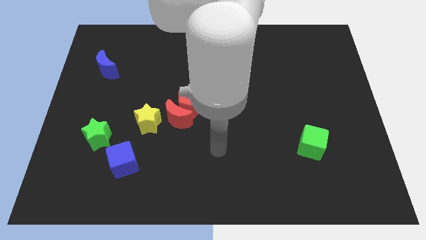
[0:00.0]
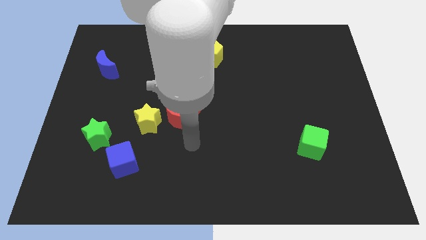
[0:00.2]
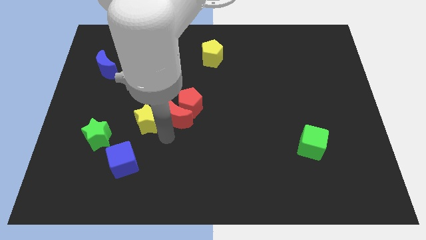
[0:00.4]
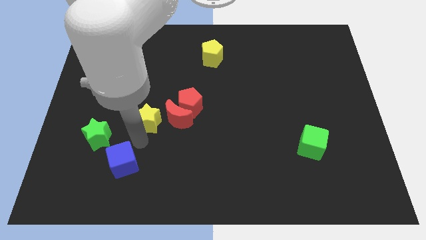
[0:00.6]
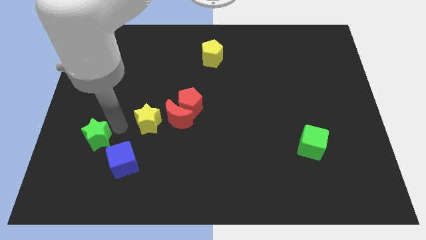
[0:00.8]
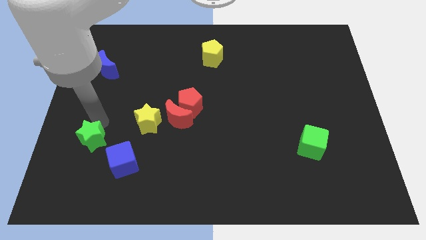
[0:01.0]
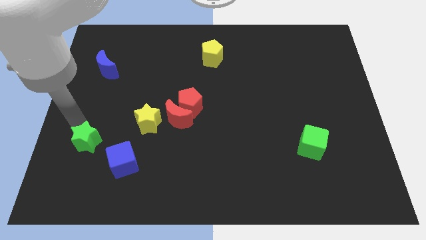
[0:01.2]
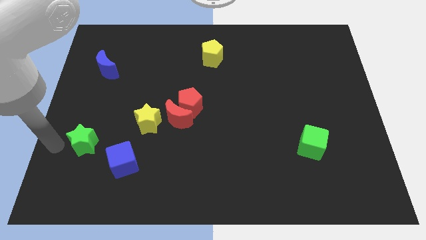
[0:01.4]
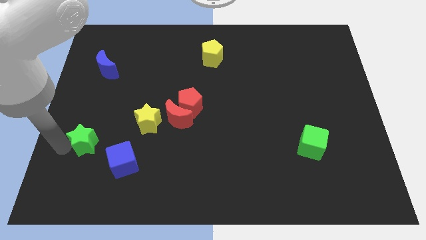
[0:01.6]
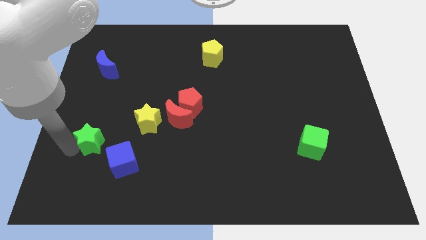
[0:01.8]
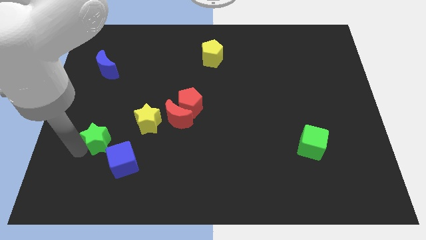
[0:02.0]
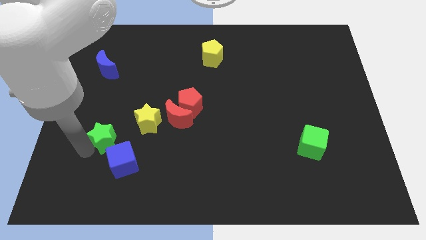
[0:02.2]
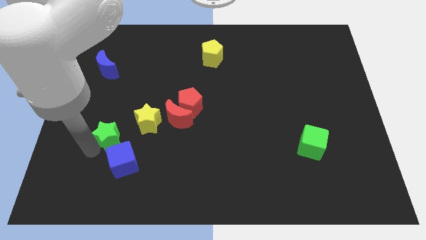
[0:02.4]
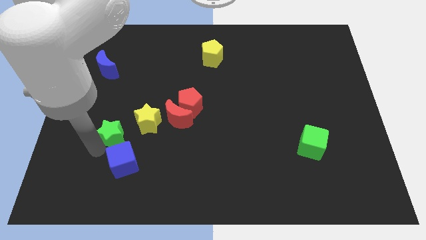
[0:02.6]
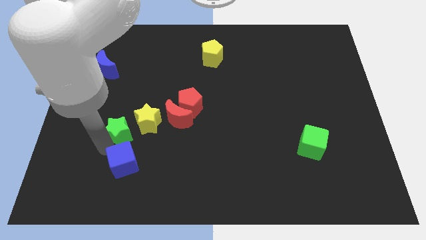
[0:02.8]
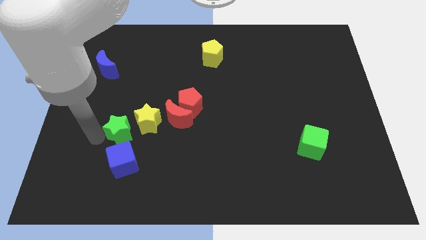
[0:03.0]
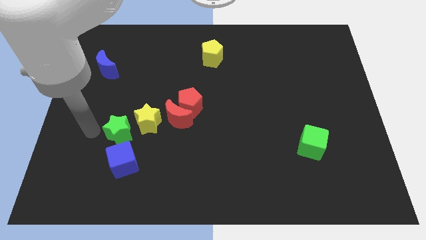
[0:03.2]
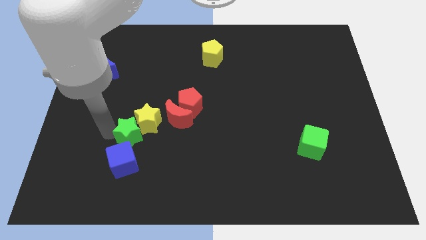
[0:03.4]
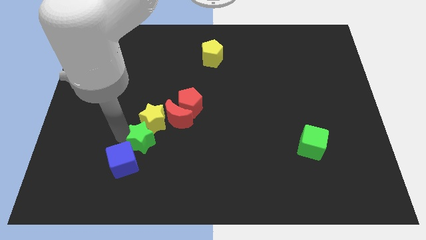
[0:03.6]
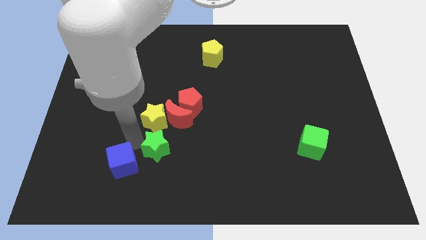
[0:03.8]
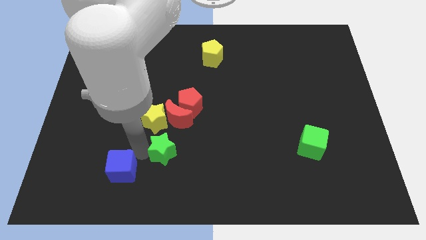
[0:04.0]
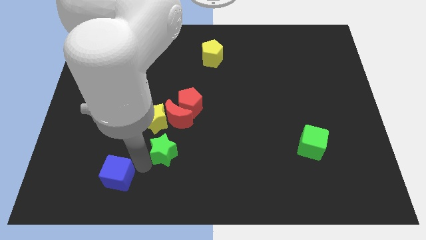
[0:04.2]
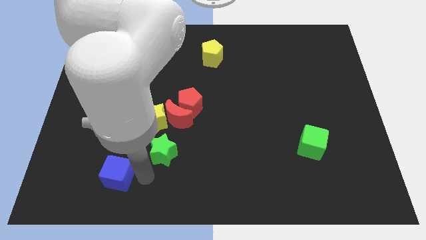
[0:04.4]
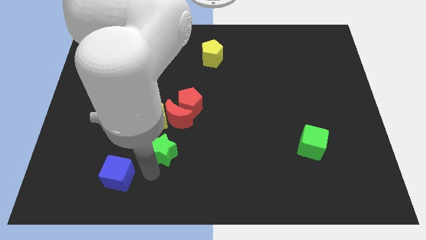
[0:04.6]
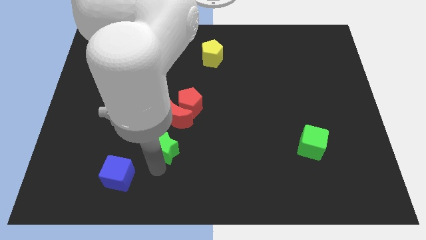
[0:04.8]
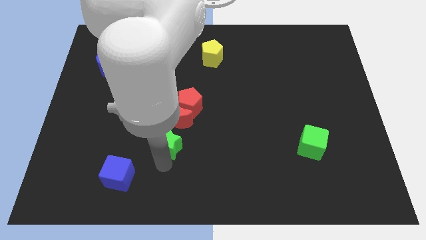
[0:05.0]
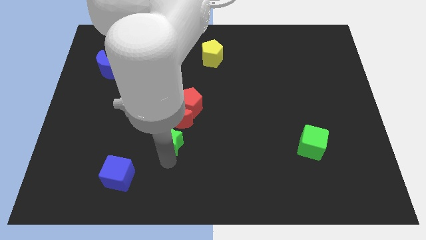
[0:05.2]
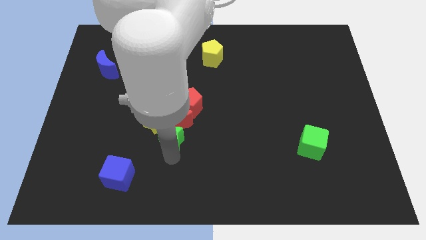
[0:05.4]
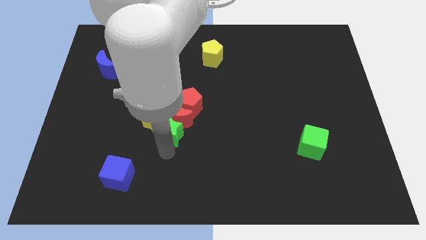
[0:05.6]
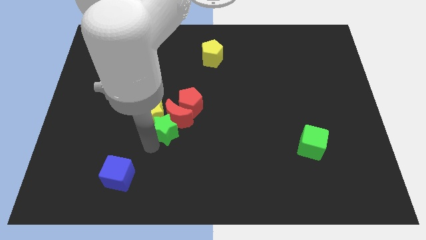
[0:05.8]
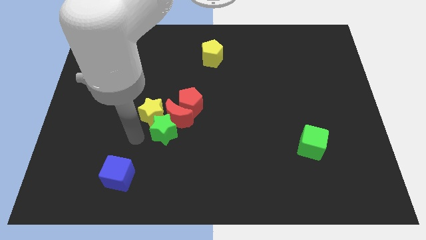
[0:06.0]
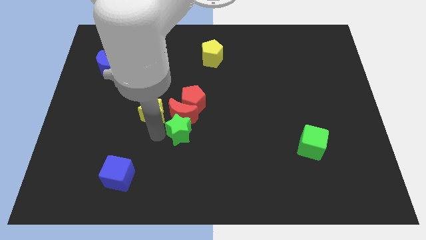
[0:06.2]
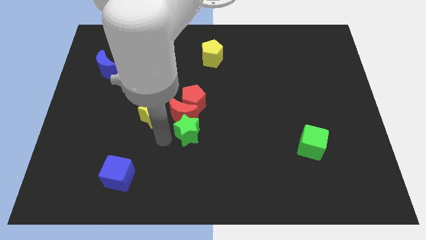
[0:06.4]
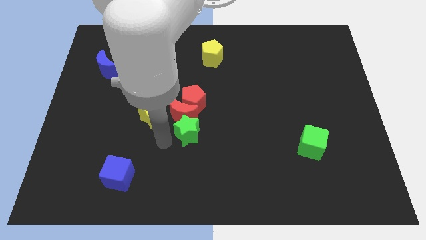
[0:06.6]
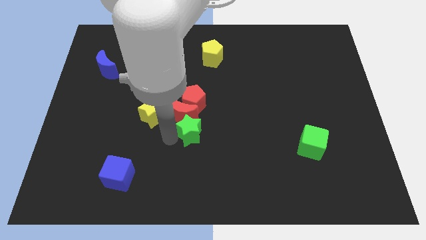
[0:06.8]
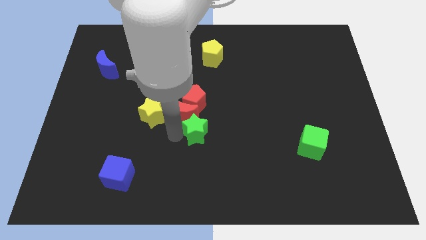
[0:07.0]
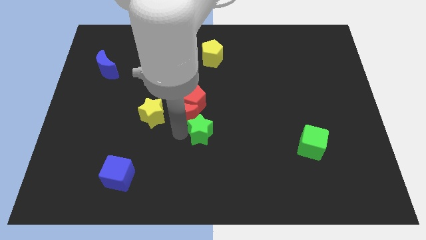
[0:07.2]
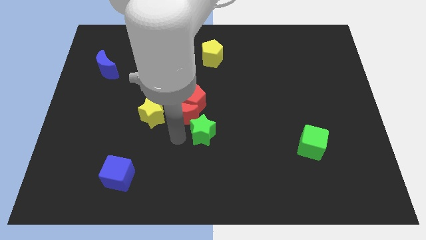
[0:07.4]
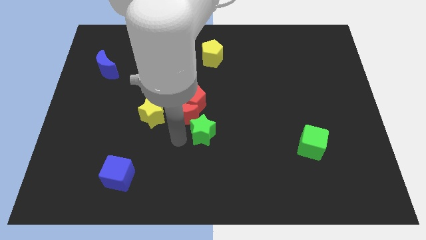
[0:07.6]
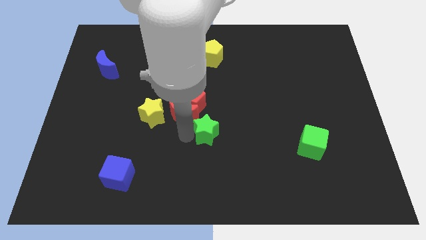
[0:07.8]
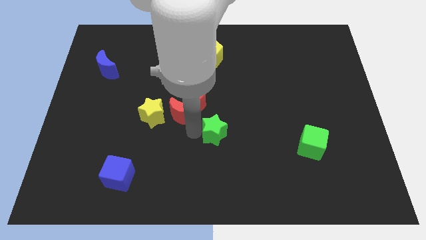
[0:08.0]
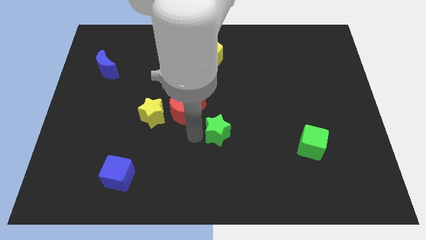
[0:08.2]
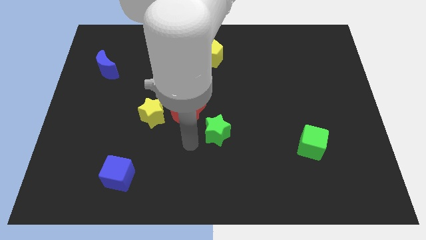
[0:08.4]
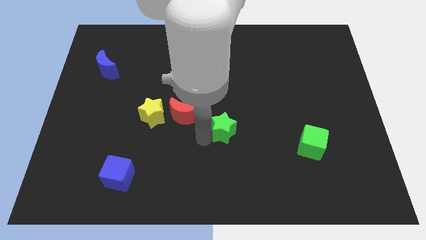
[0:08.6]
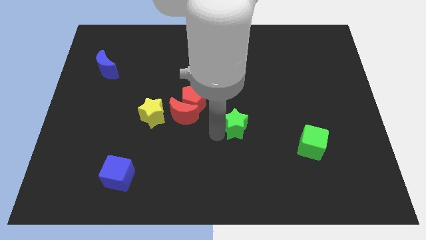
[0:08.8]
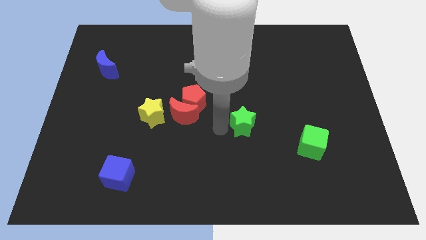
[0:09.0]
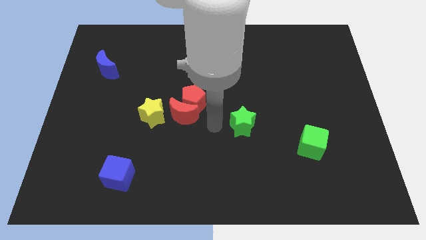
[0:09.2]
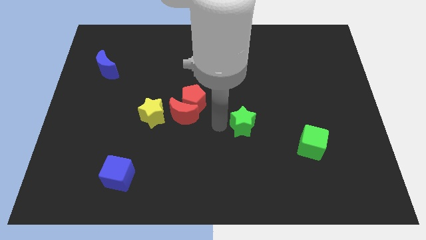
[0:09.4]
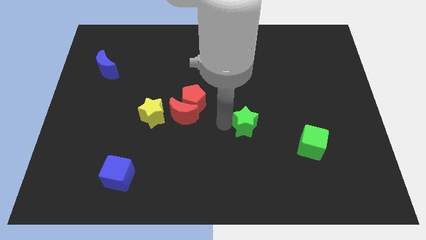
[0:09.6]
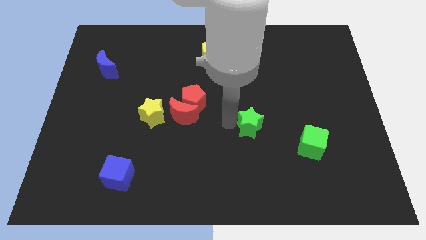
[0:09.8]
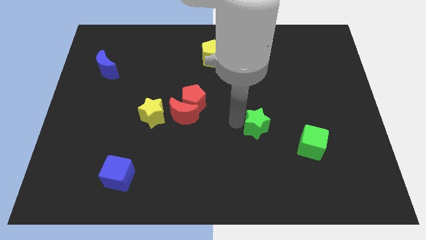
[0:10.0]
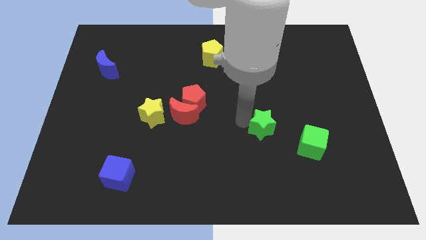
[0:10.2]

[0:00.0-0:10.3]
move the green star diagonally up and to the left of the green cube

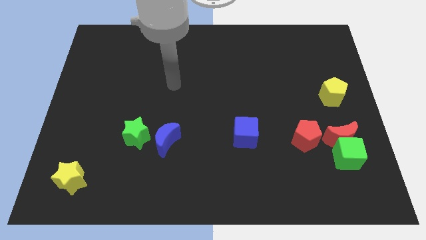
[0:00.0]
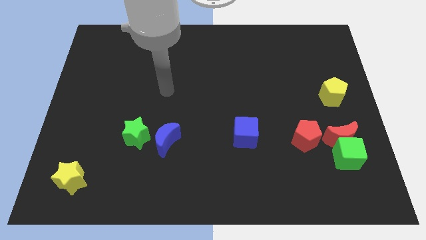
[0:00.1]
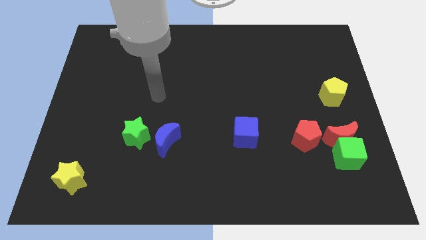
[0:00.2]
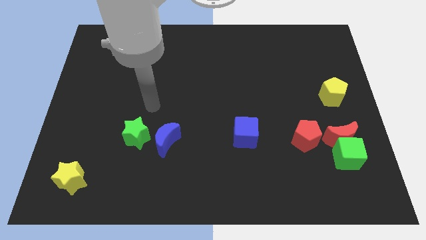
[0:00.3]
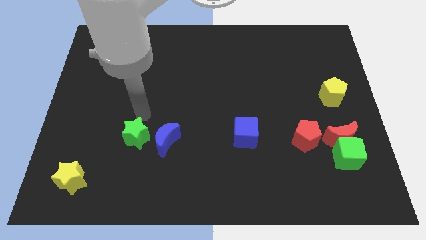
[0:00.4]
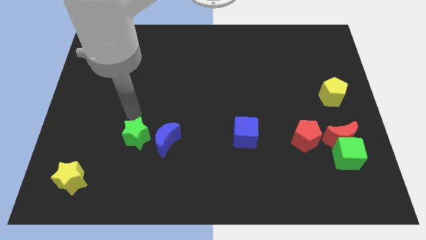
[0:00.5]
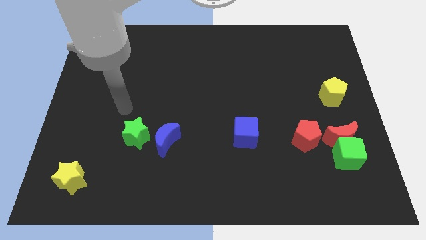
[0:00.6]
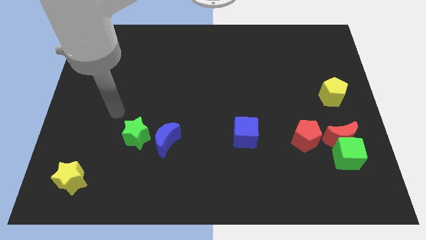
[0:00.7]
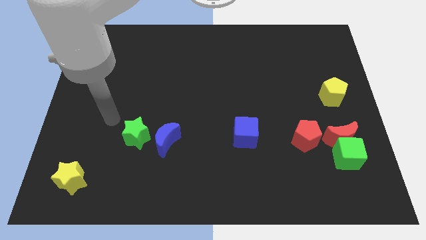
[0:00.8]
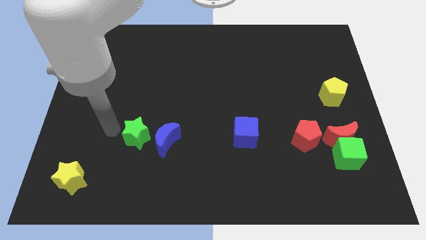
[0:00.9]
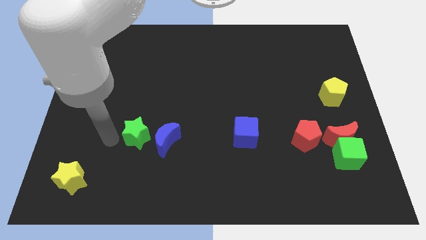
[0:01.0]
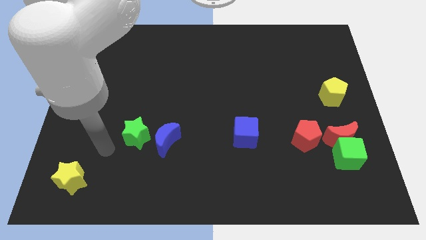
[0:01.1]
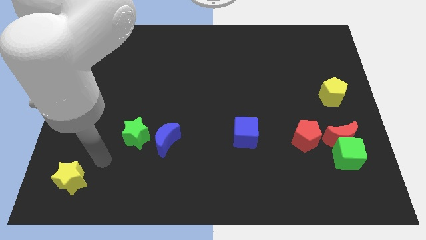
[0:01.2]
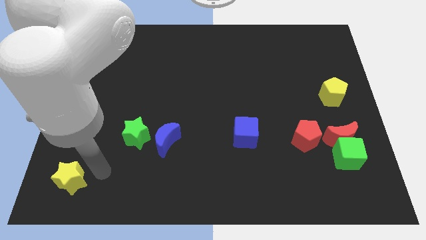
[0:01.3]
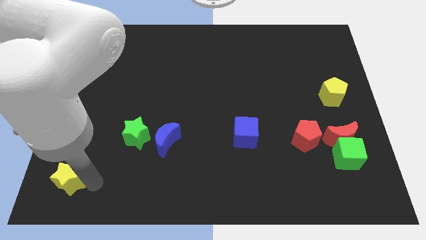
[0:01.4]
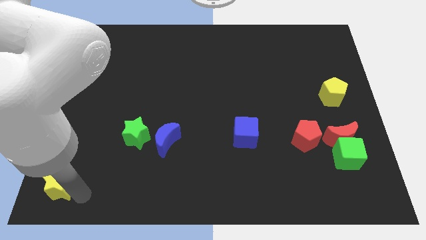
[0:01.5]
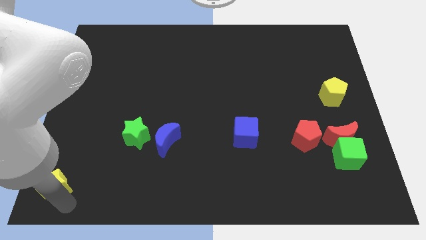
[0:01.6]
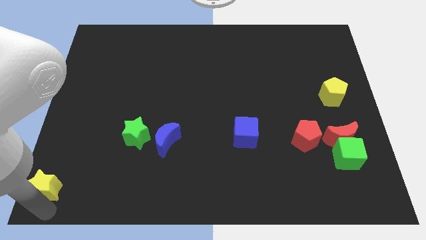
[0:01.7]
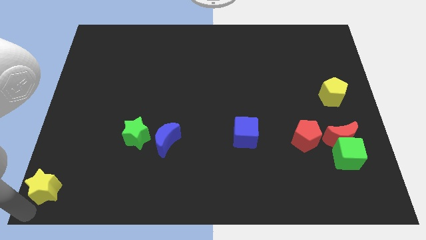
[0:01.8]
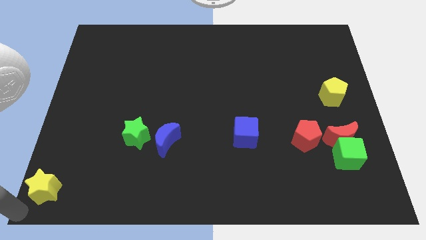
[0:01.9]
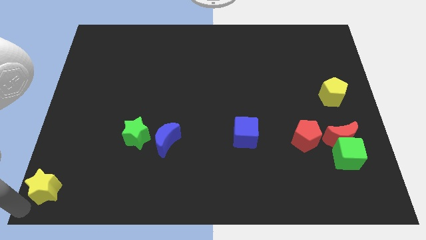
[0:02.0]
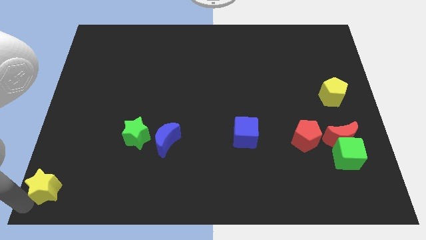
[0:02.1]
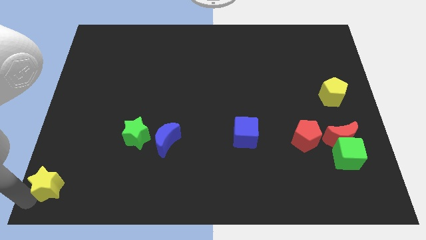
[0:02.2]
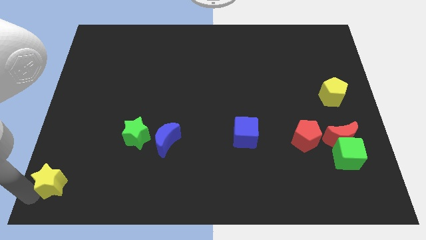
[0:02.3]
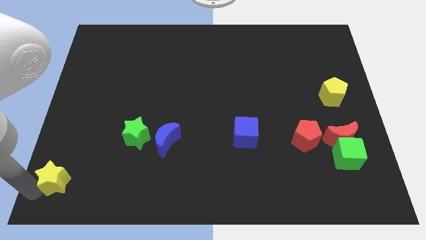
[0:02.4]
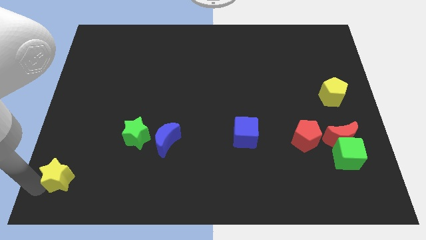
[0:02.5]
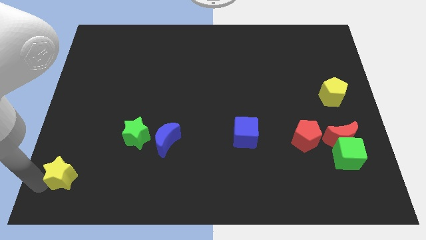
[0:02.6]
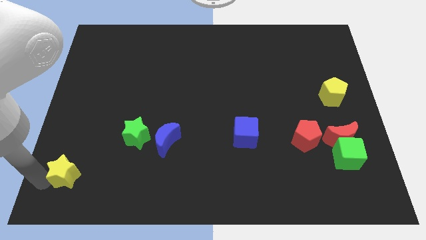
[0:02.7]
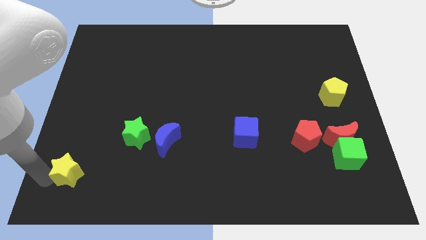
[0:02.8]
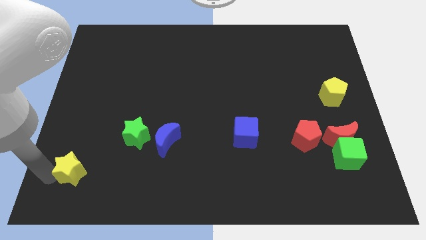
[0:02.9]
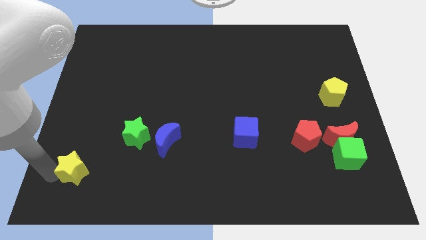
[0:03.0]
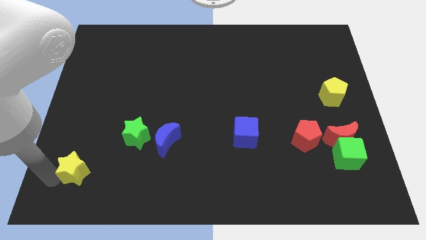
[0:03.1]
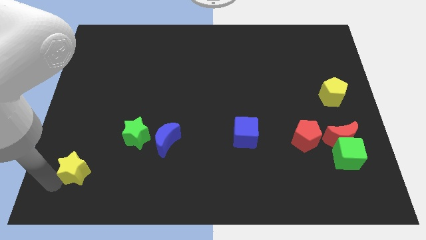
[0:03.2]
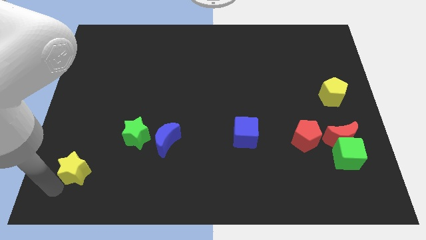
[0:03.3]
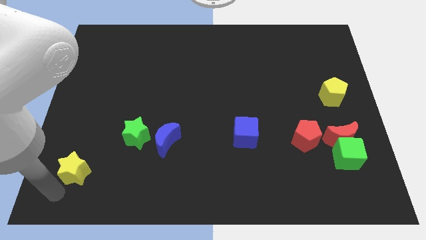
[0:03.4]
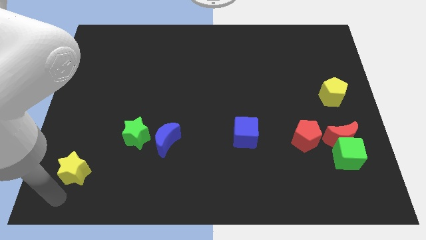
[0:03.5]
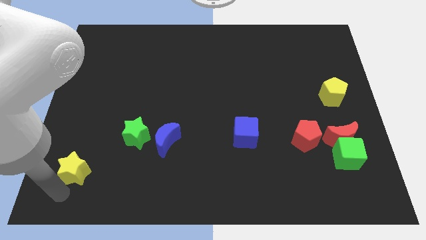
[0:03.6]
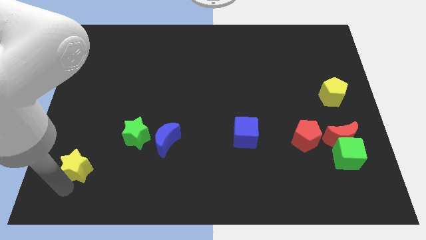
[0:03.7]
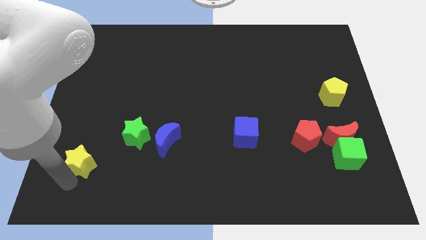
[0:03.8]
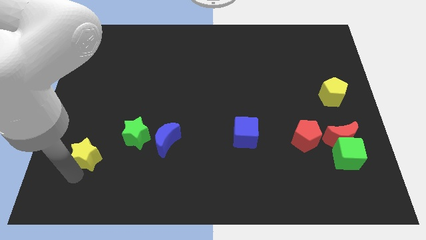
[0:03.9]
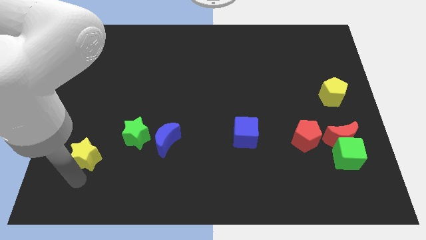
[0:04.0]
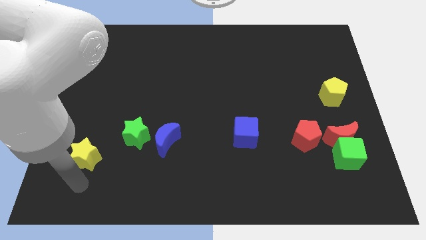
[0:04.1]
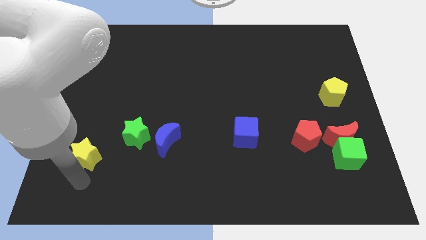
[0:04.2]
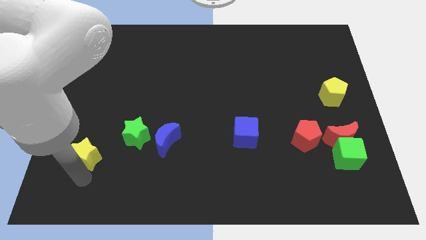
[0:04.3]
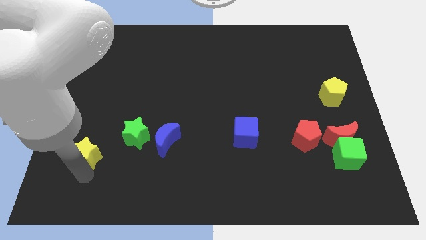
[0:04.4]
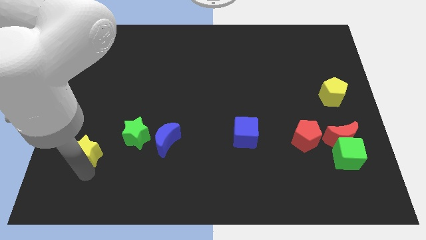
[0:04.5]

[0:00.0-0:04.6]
push the yellow star left of the green star
